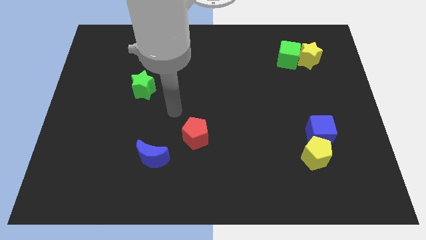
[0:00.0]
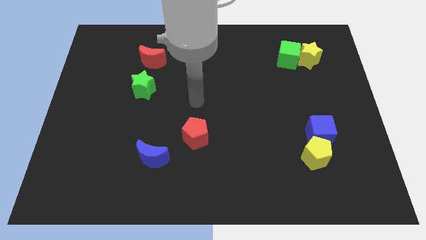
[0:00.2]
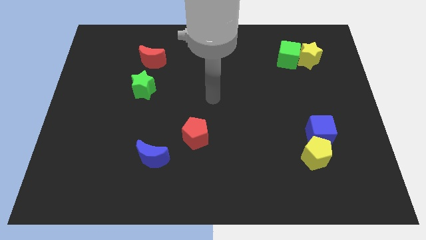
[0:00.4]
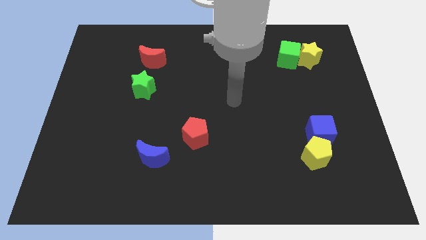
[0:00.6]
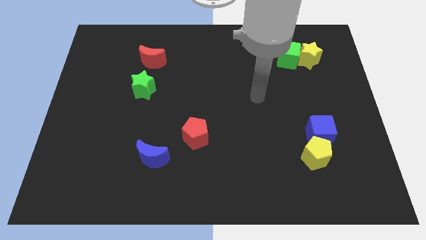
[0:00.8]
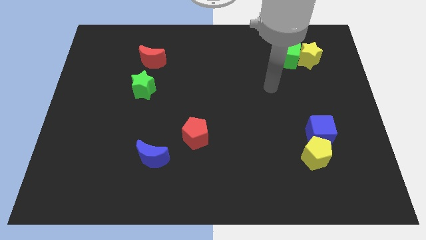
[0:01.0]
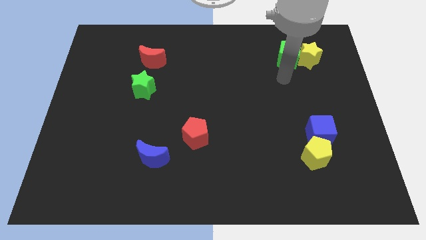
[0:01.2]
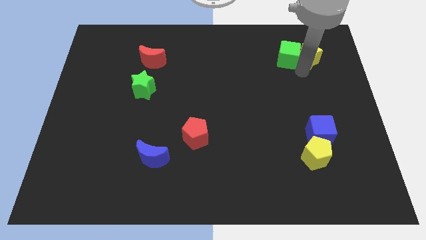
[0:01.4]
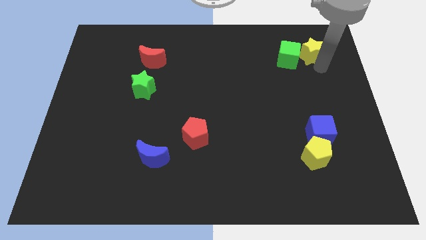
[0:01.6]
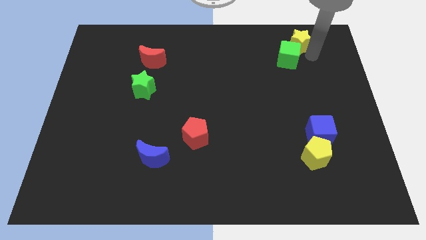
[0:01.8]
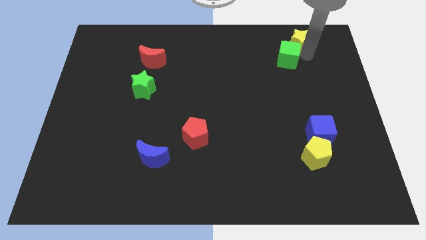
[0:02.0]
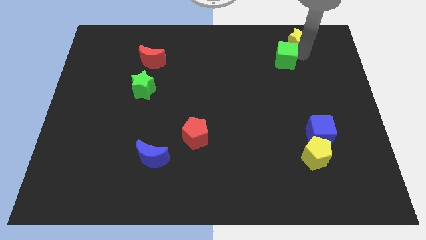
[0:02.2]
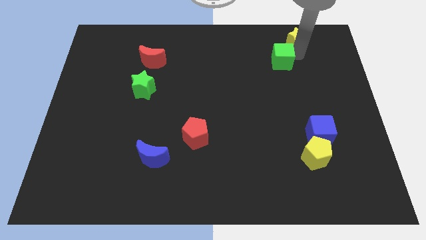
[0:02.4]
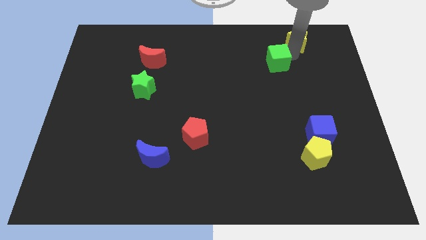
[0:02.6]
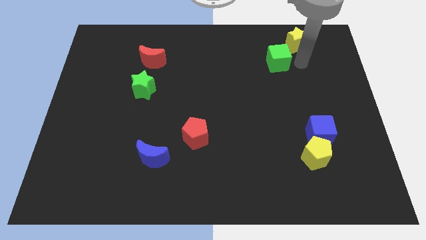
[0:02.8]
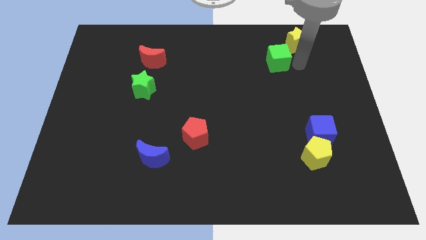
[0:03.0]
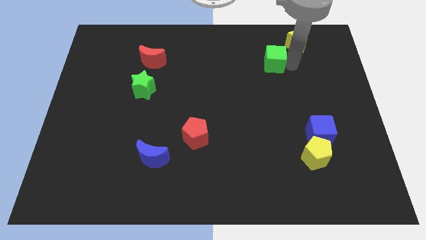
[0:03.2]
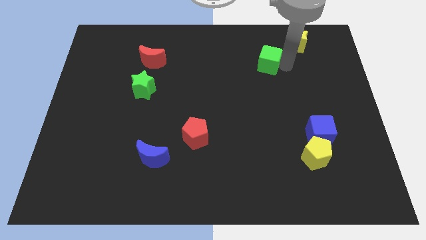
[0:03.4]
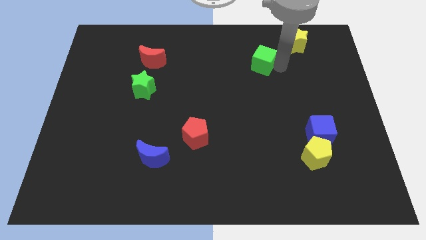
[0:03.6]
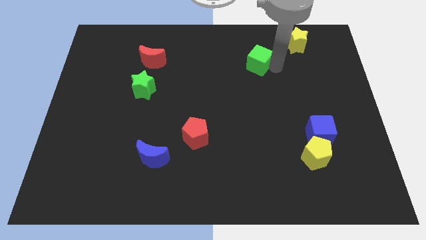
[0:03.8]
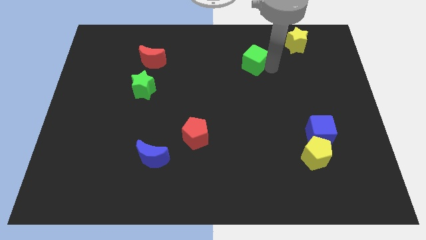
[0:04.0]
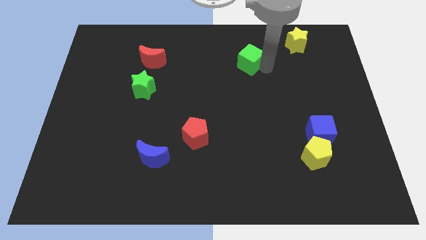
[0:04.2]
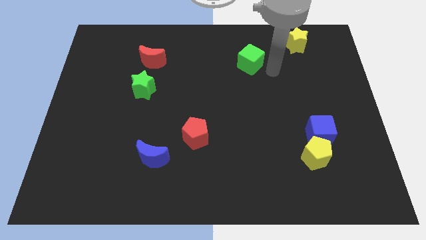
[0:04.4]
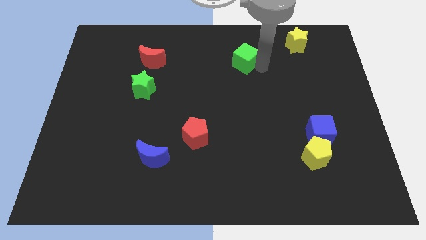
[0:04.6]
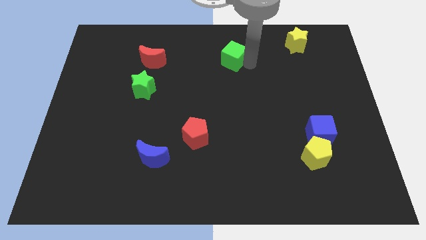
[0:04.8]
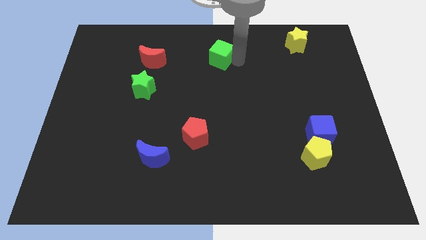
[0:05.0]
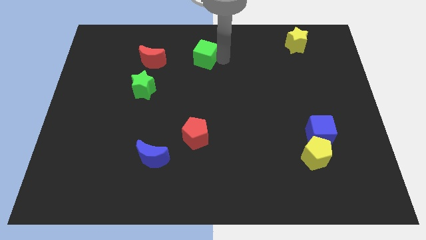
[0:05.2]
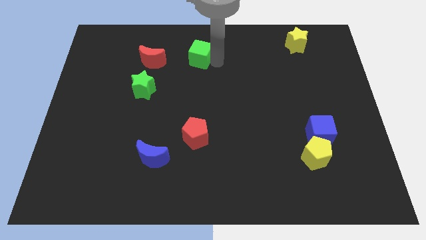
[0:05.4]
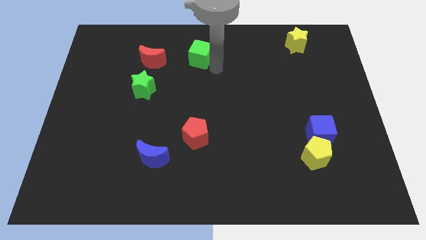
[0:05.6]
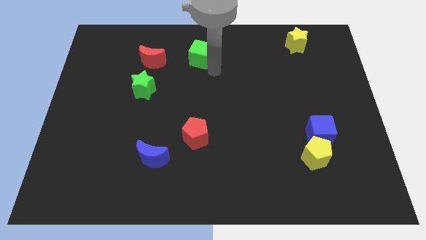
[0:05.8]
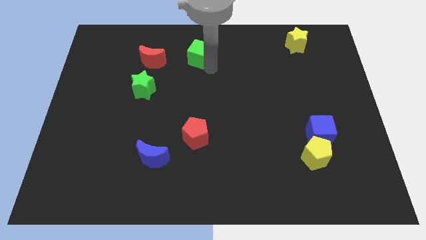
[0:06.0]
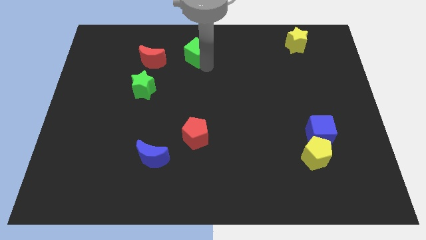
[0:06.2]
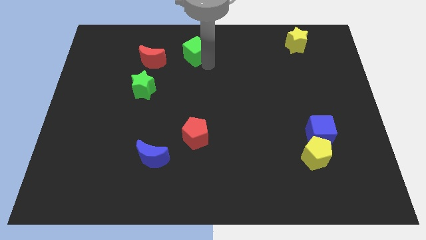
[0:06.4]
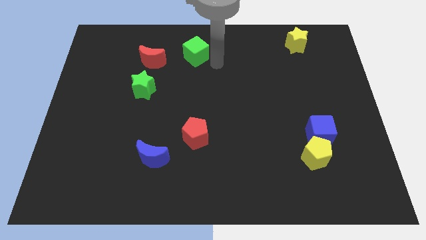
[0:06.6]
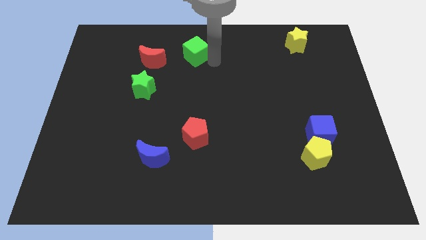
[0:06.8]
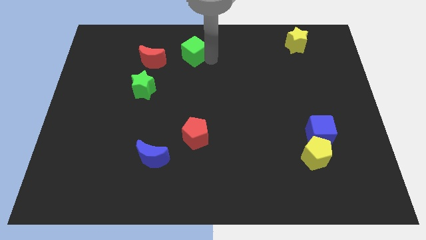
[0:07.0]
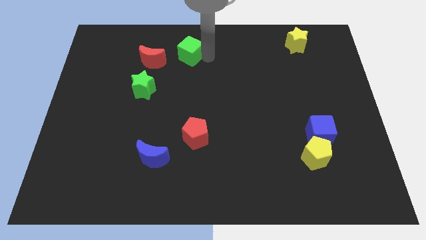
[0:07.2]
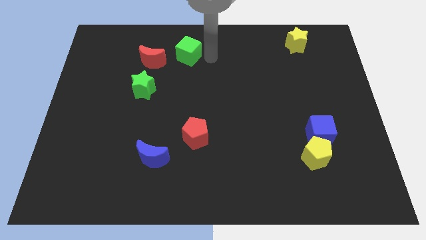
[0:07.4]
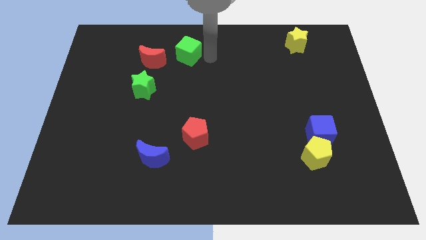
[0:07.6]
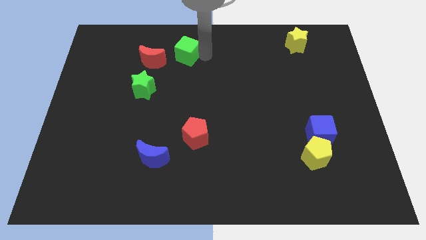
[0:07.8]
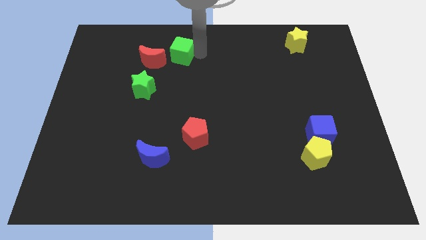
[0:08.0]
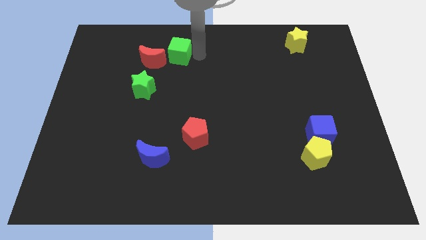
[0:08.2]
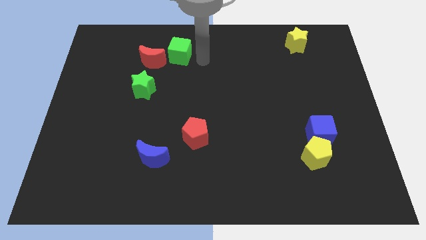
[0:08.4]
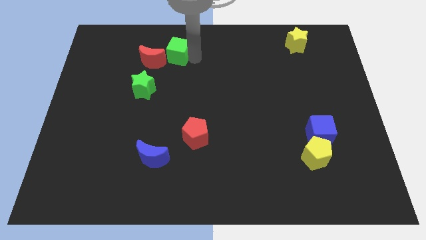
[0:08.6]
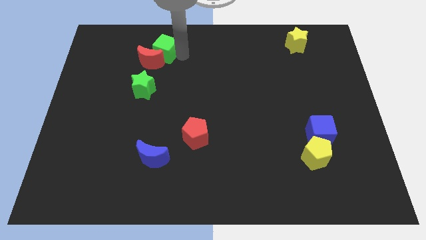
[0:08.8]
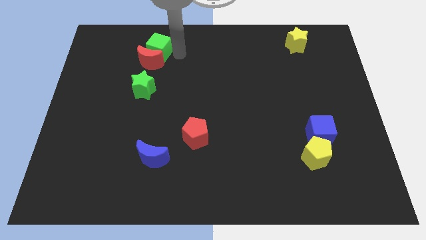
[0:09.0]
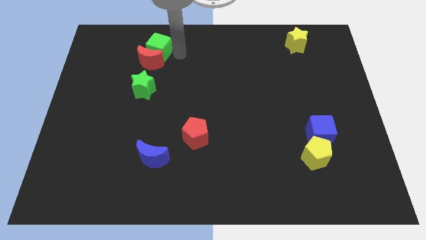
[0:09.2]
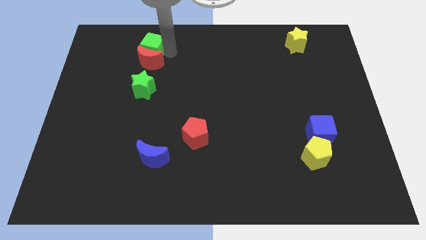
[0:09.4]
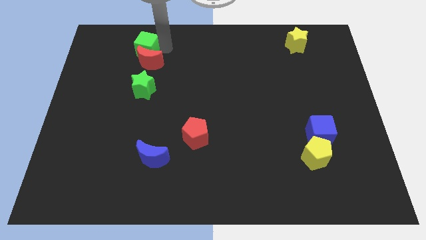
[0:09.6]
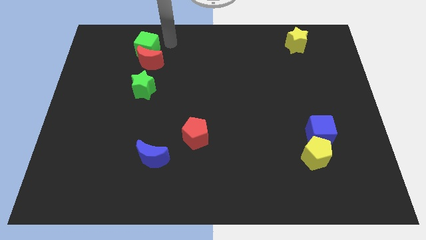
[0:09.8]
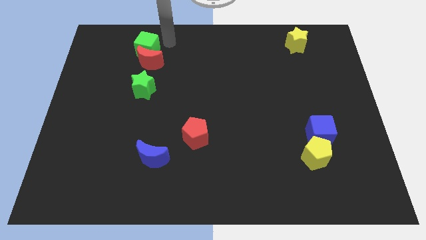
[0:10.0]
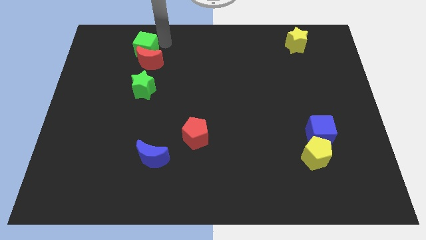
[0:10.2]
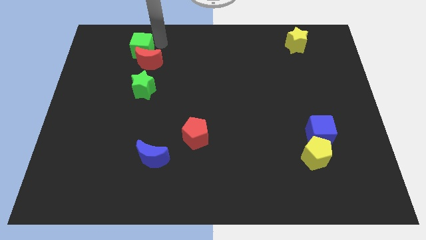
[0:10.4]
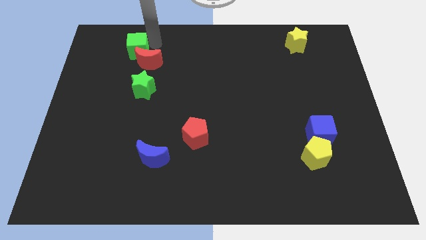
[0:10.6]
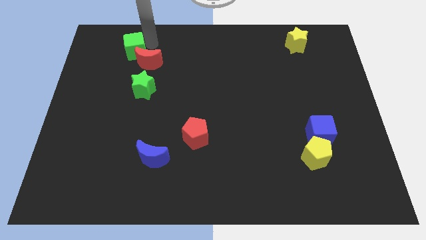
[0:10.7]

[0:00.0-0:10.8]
slide the green cube to the left side of the red moon

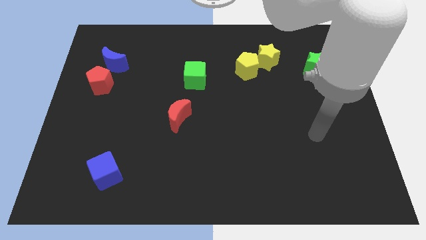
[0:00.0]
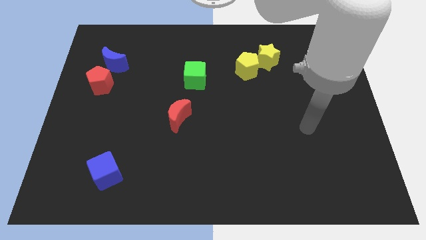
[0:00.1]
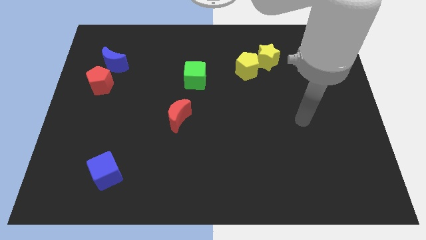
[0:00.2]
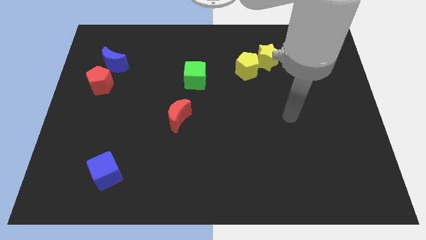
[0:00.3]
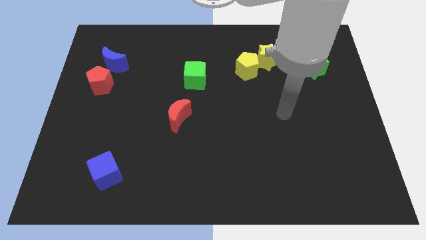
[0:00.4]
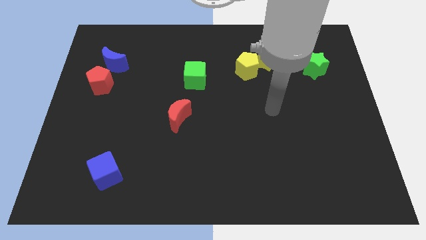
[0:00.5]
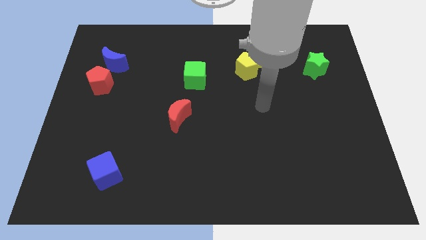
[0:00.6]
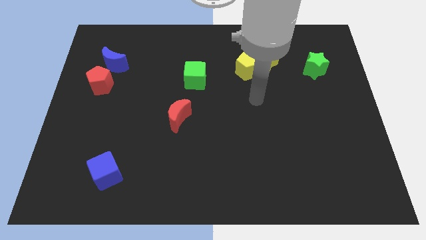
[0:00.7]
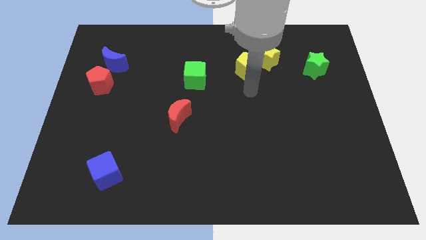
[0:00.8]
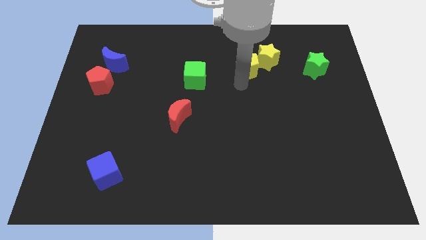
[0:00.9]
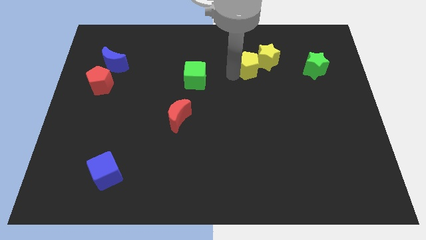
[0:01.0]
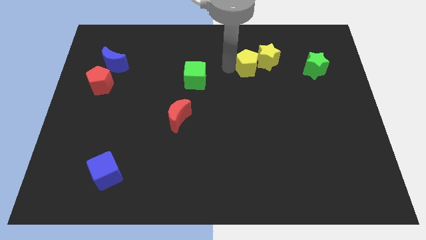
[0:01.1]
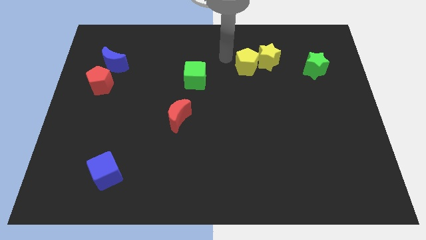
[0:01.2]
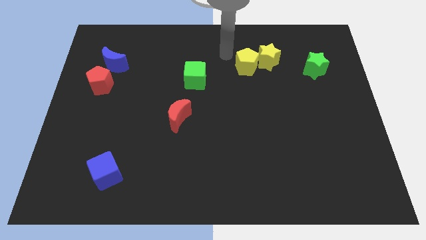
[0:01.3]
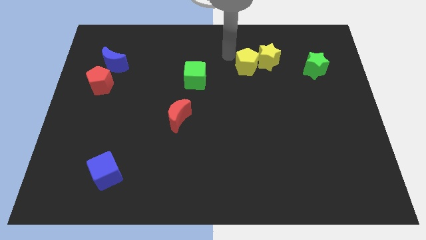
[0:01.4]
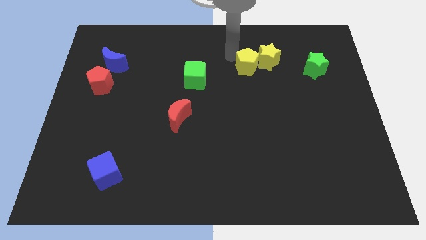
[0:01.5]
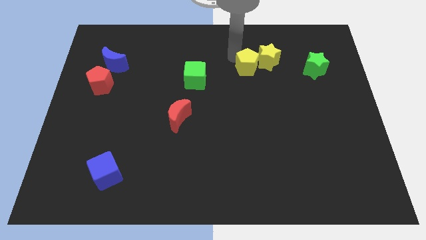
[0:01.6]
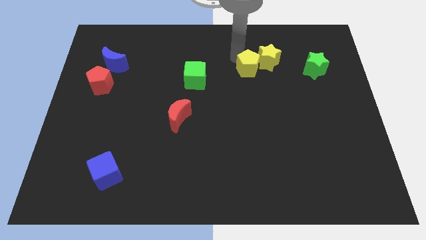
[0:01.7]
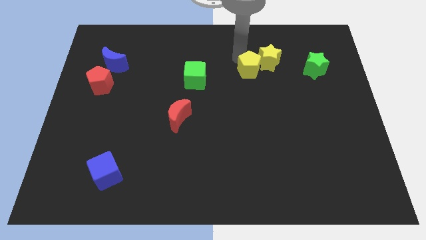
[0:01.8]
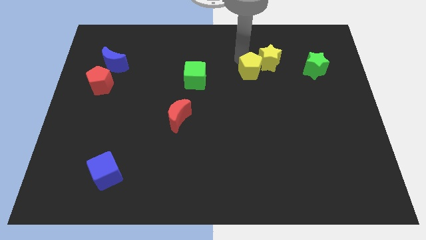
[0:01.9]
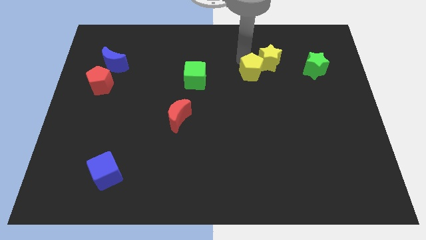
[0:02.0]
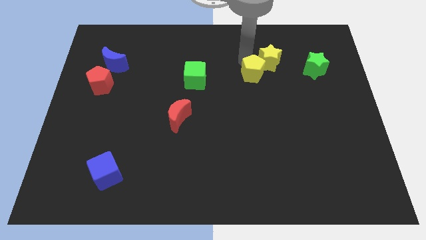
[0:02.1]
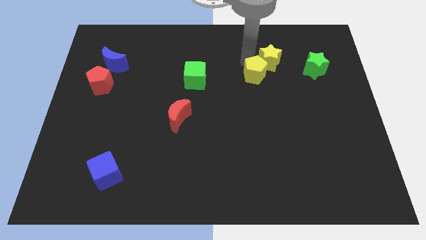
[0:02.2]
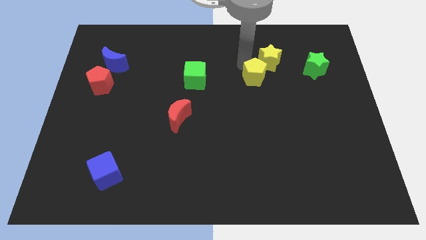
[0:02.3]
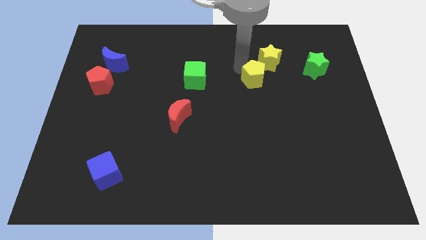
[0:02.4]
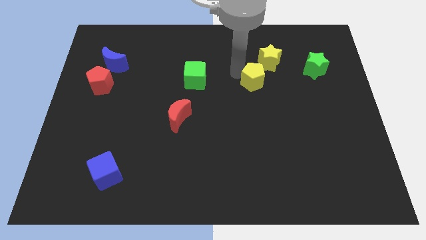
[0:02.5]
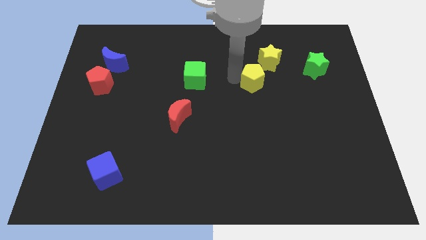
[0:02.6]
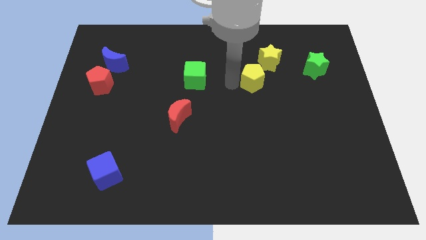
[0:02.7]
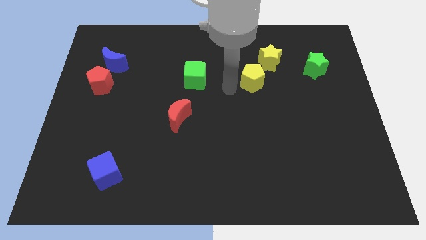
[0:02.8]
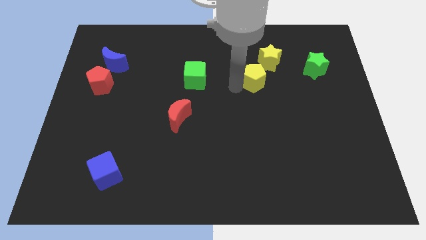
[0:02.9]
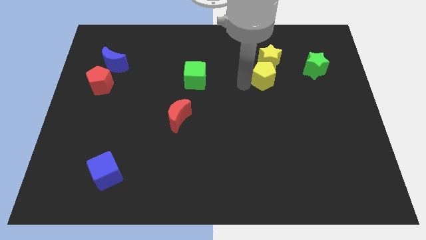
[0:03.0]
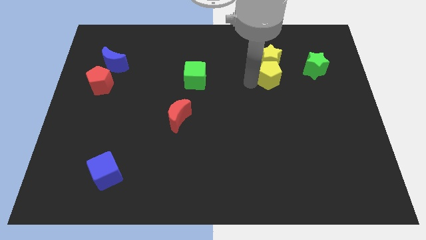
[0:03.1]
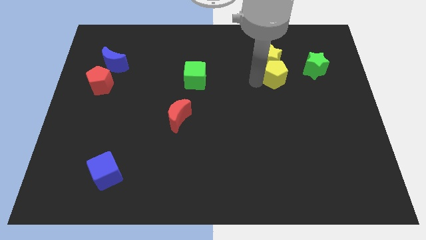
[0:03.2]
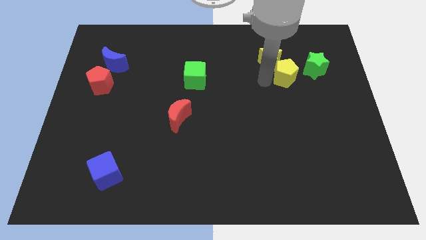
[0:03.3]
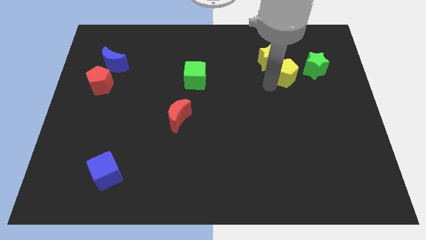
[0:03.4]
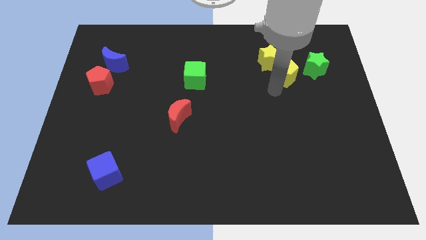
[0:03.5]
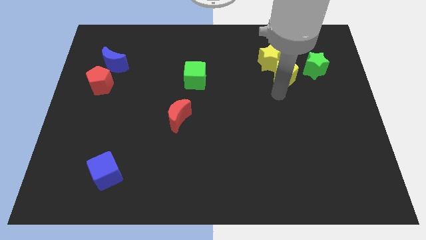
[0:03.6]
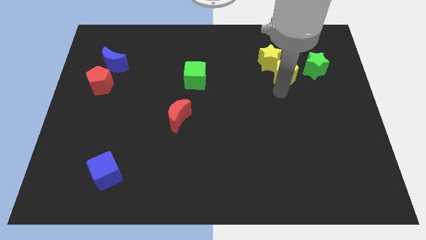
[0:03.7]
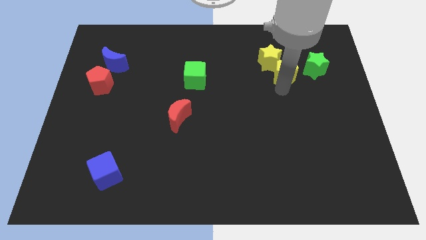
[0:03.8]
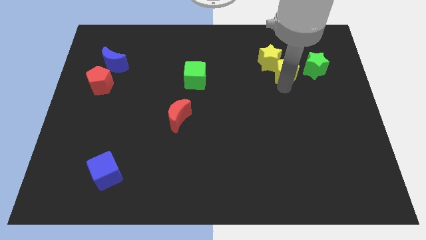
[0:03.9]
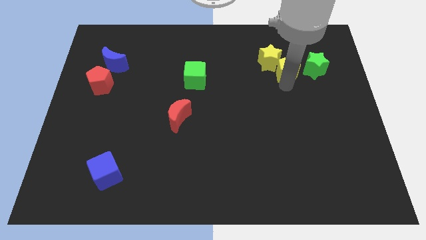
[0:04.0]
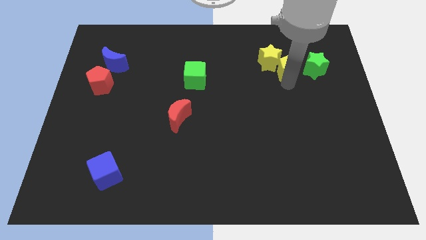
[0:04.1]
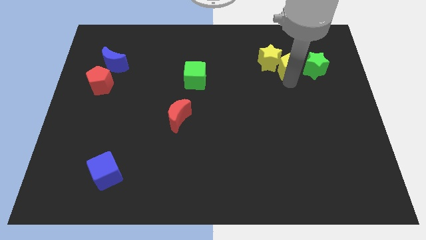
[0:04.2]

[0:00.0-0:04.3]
put the yellow pentagon to the top left side of the green star
